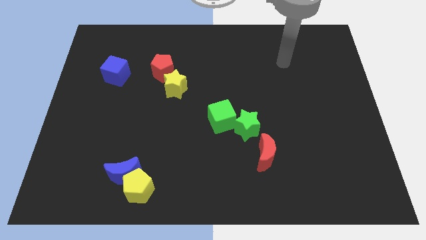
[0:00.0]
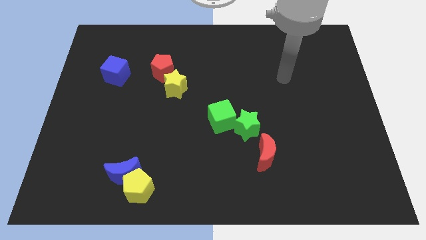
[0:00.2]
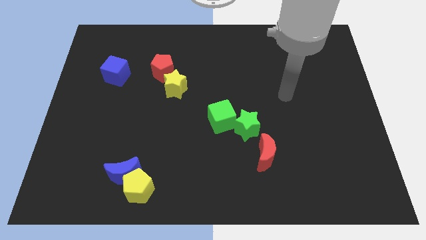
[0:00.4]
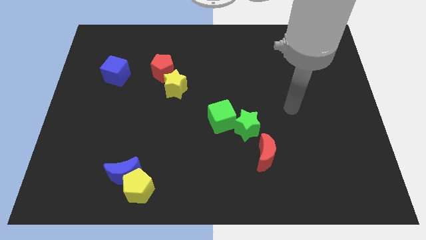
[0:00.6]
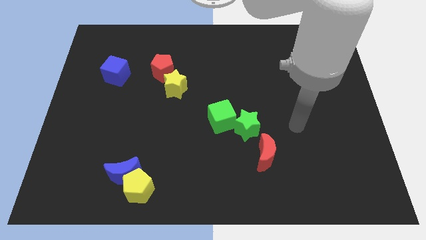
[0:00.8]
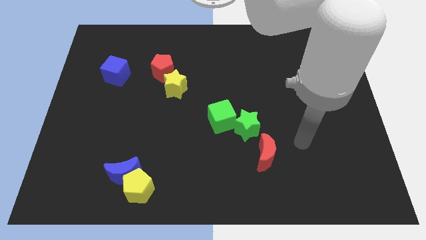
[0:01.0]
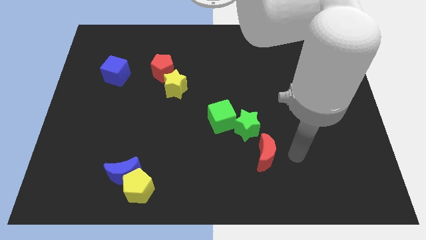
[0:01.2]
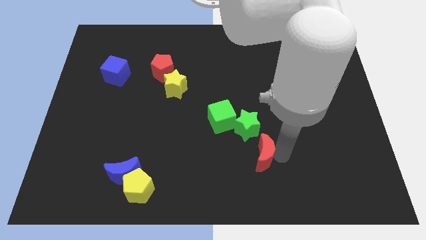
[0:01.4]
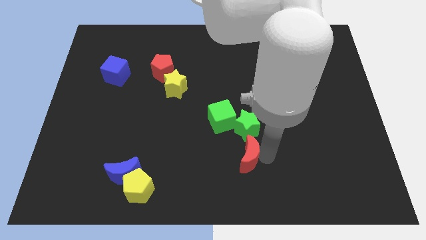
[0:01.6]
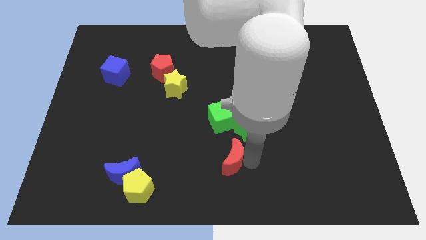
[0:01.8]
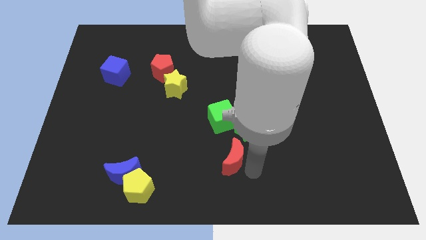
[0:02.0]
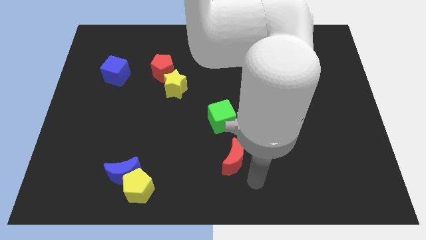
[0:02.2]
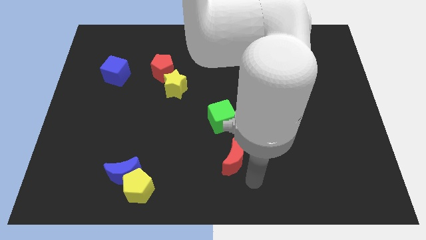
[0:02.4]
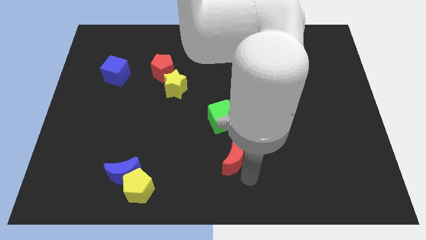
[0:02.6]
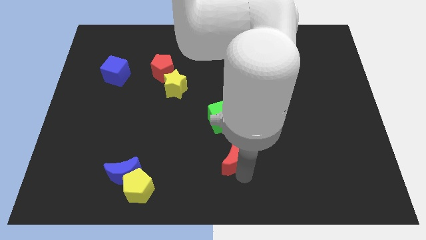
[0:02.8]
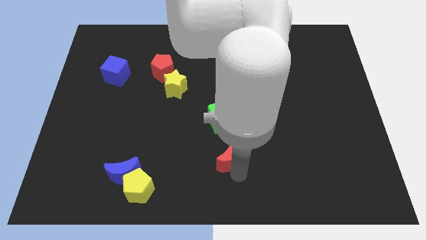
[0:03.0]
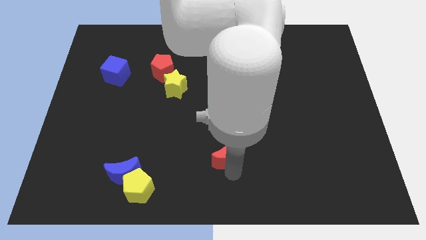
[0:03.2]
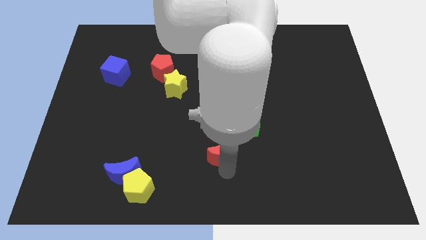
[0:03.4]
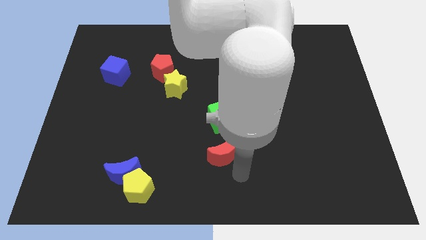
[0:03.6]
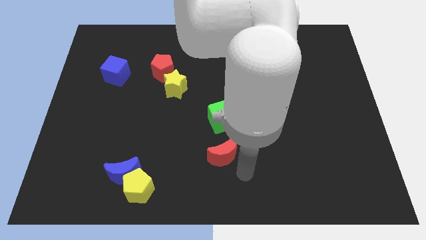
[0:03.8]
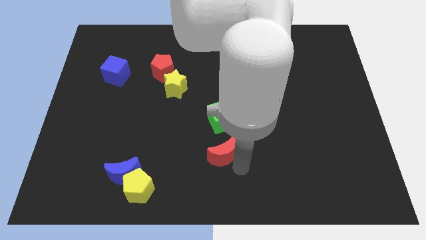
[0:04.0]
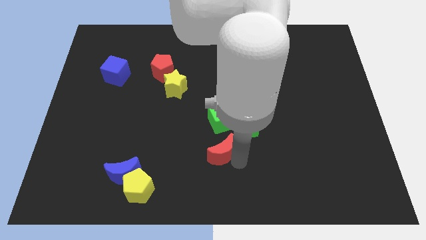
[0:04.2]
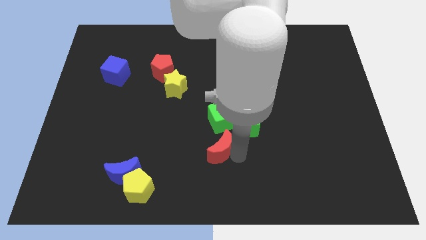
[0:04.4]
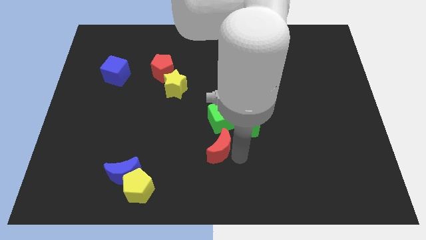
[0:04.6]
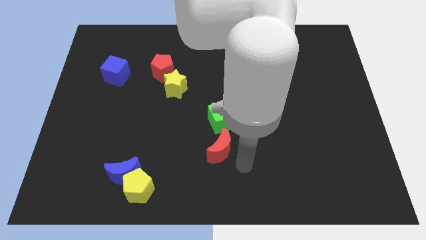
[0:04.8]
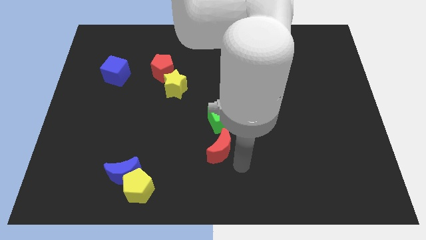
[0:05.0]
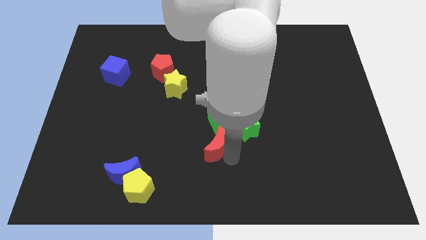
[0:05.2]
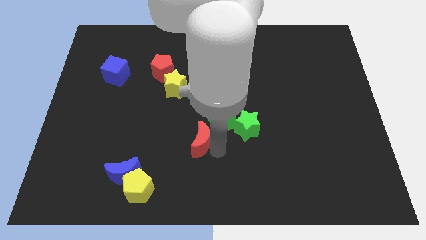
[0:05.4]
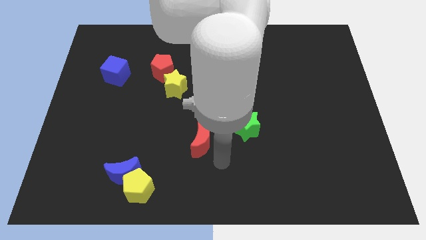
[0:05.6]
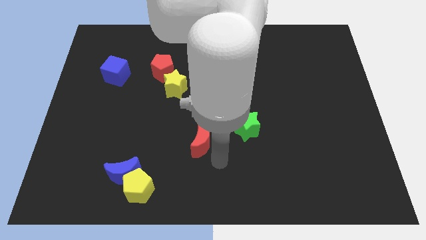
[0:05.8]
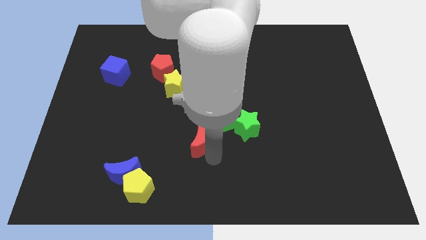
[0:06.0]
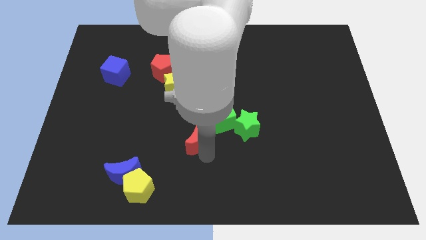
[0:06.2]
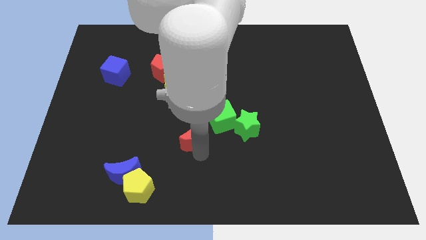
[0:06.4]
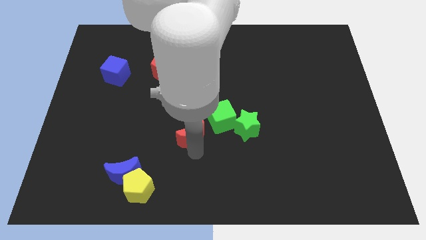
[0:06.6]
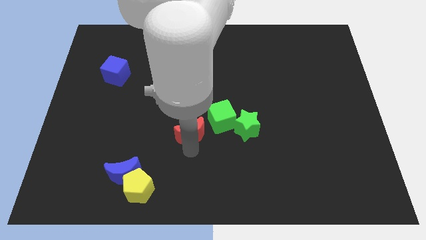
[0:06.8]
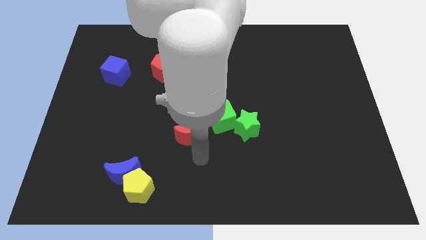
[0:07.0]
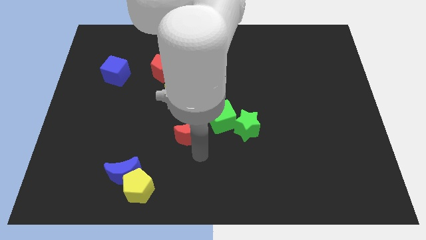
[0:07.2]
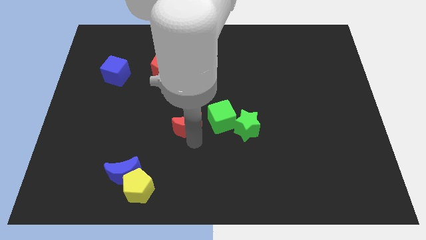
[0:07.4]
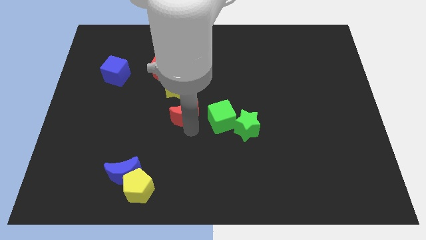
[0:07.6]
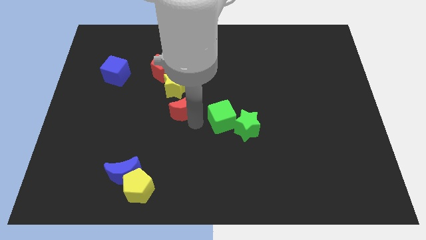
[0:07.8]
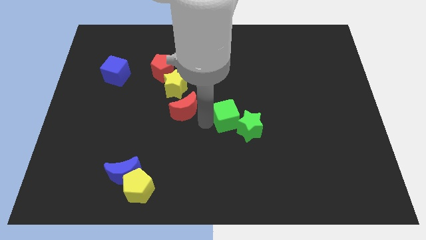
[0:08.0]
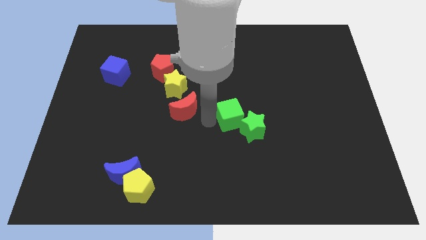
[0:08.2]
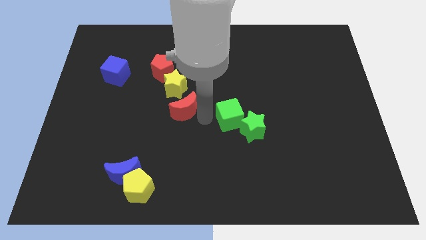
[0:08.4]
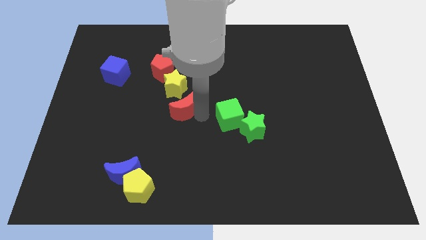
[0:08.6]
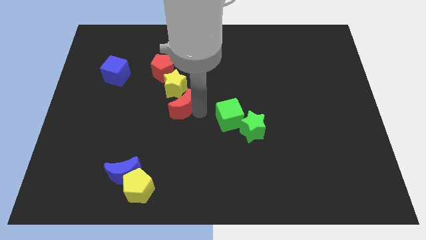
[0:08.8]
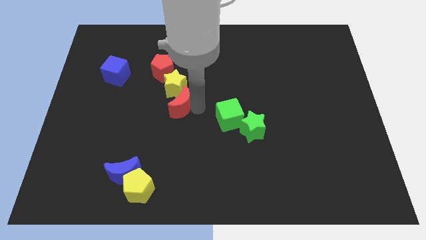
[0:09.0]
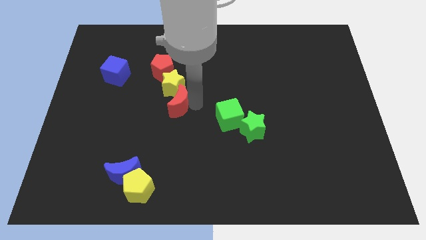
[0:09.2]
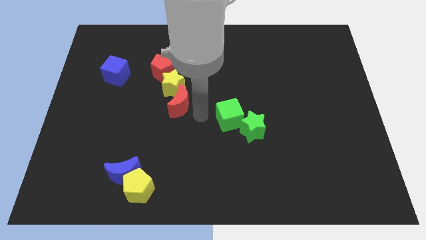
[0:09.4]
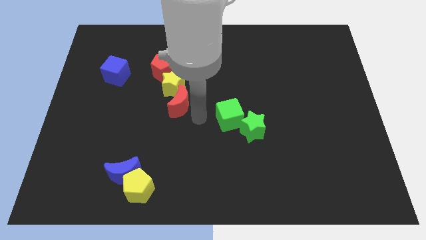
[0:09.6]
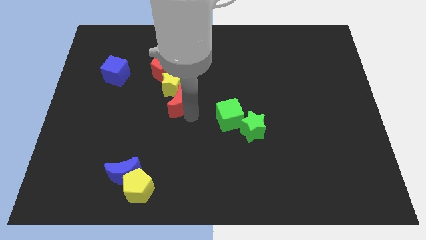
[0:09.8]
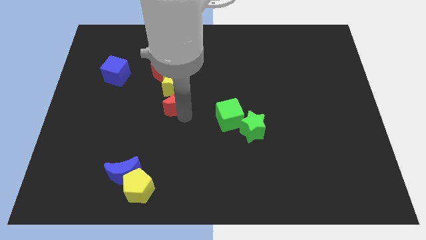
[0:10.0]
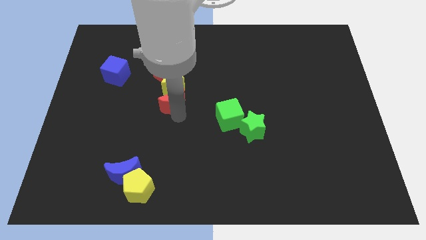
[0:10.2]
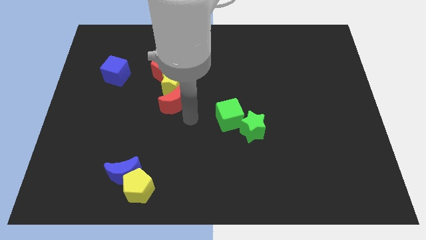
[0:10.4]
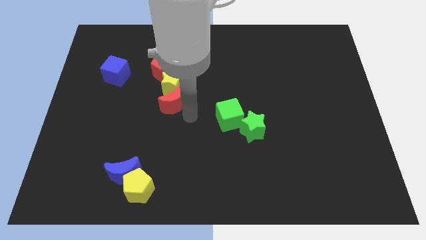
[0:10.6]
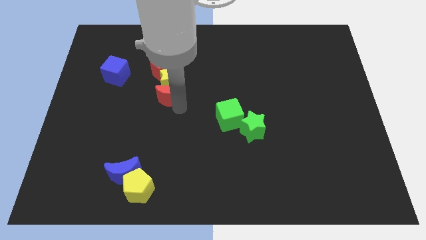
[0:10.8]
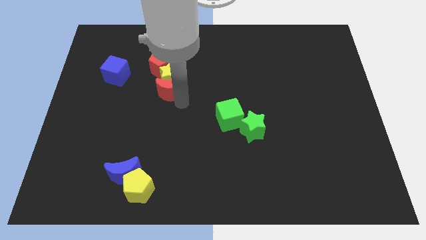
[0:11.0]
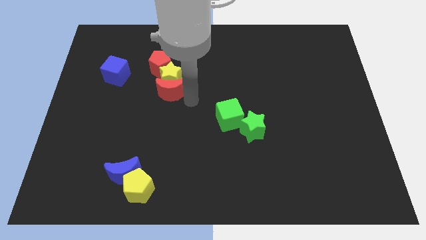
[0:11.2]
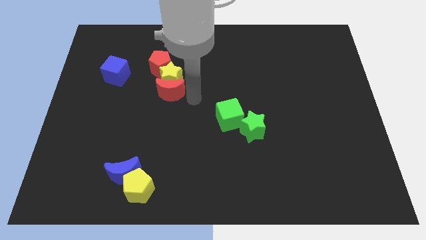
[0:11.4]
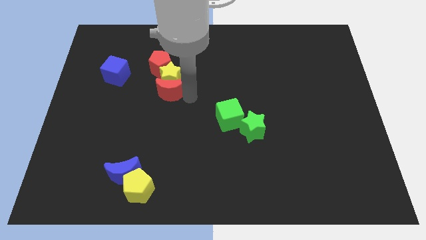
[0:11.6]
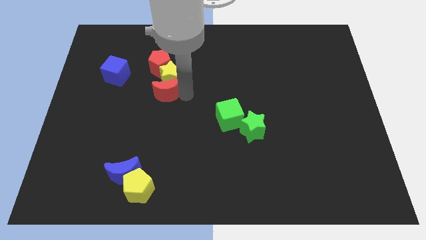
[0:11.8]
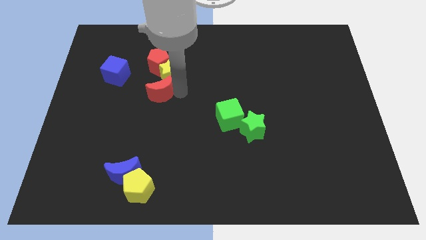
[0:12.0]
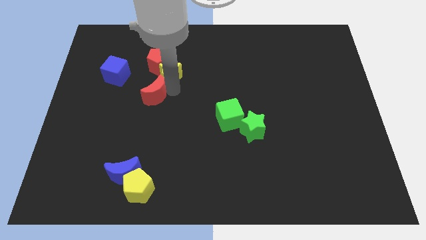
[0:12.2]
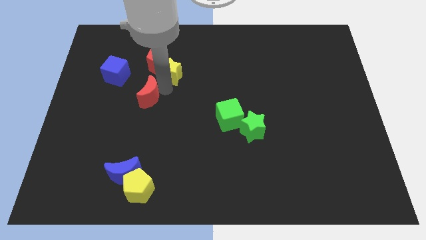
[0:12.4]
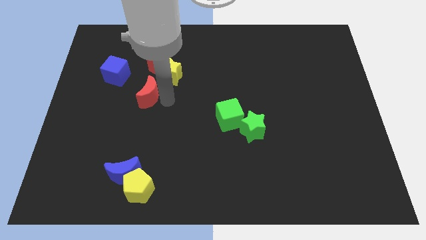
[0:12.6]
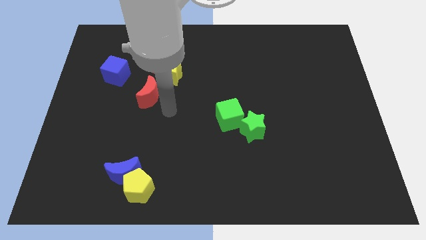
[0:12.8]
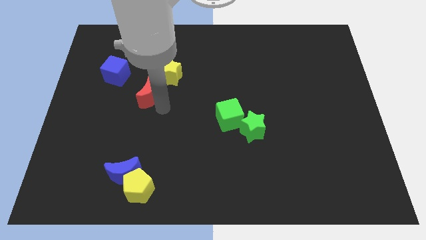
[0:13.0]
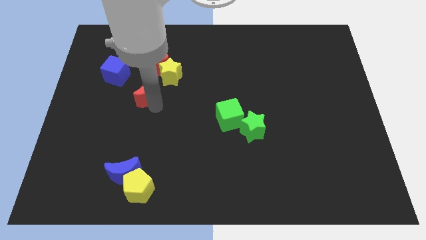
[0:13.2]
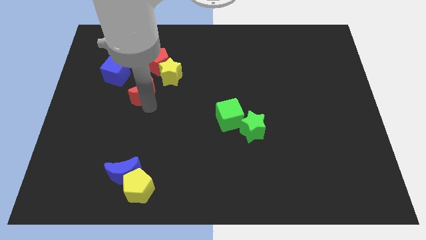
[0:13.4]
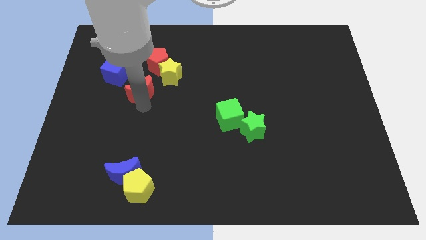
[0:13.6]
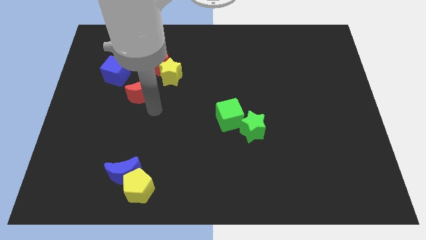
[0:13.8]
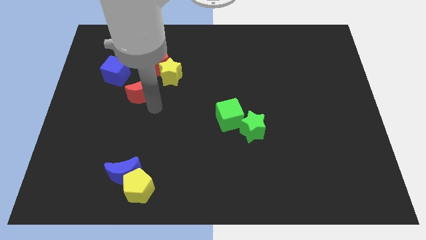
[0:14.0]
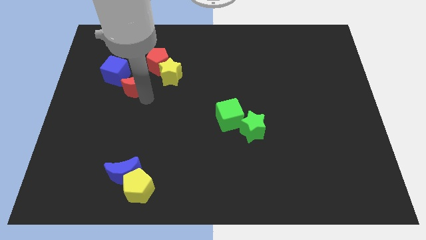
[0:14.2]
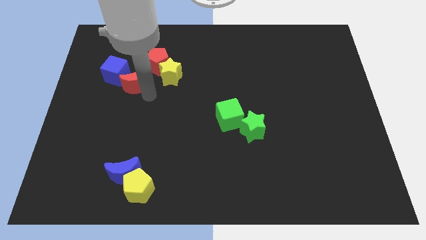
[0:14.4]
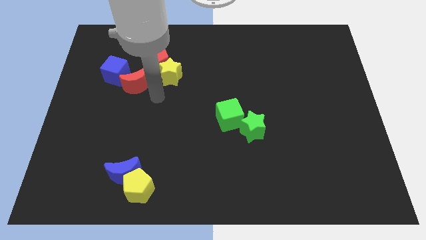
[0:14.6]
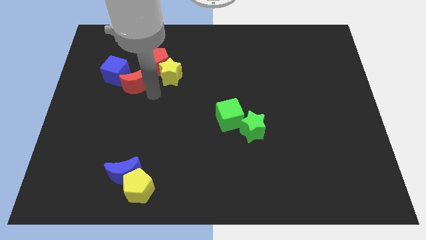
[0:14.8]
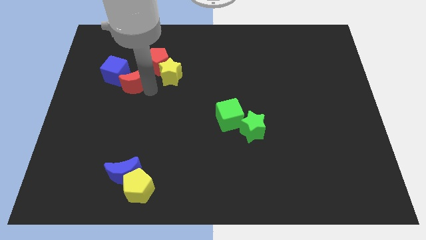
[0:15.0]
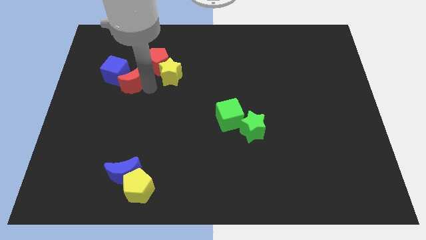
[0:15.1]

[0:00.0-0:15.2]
slide the red moon close to the blue cube

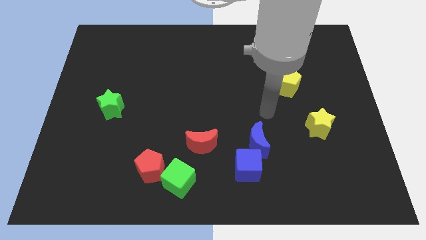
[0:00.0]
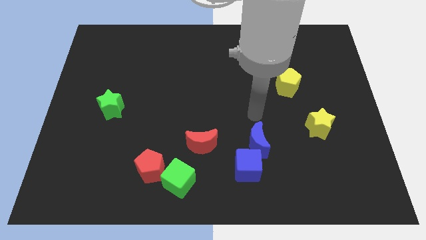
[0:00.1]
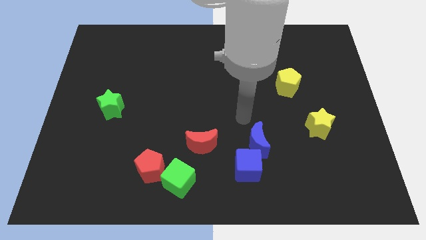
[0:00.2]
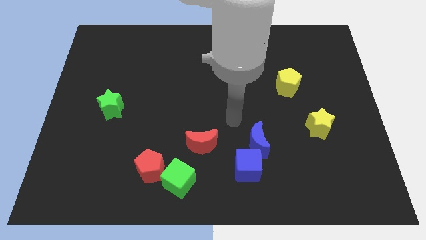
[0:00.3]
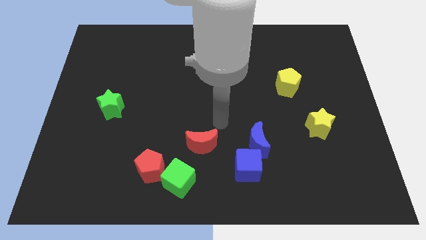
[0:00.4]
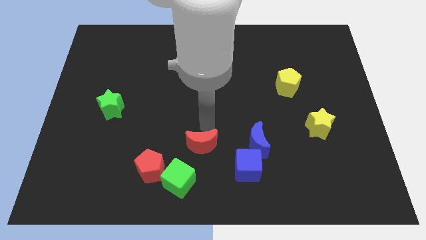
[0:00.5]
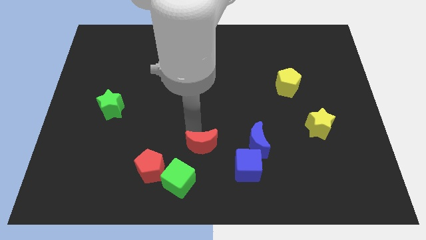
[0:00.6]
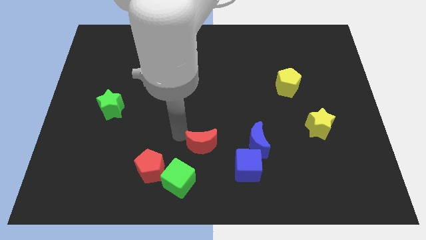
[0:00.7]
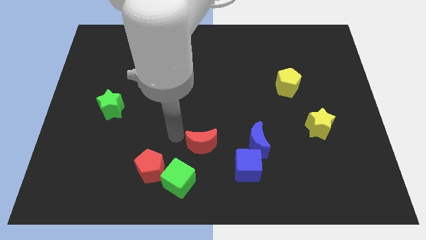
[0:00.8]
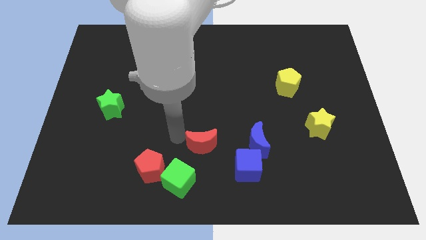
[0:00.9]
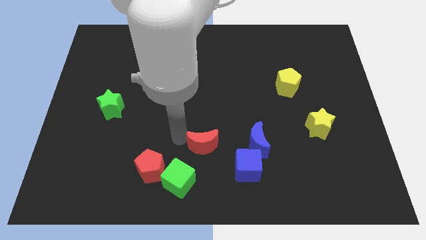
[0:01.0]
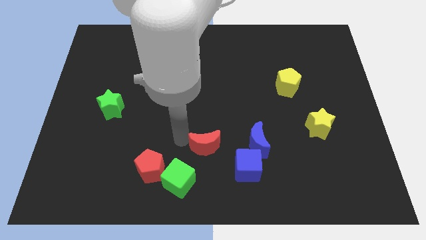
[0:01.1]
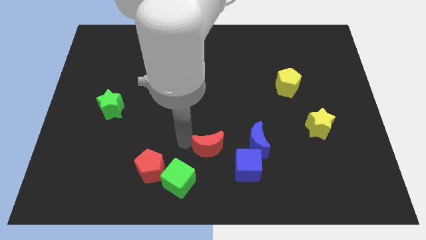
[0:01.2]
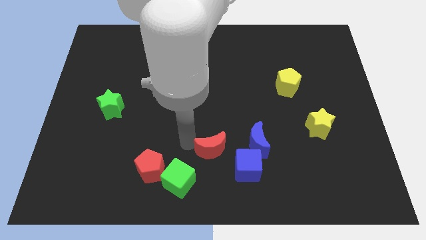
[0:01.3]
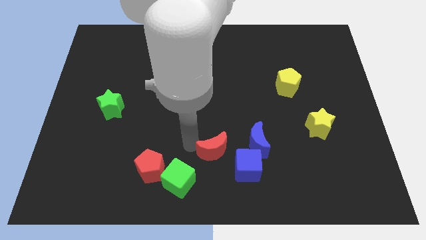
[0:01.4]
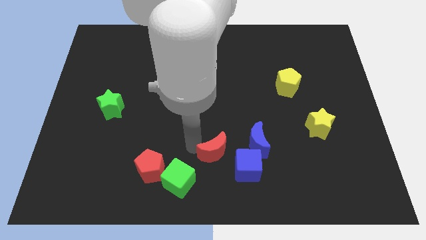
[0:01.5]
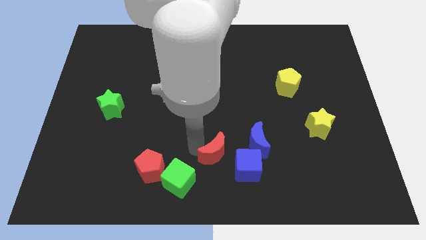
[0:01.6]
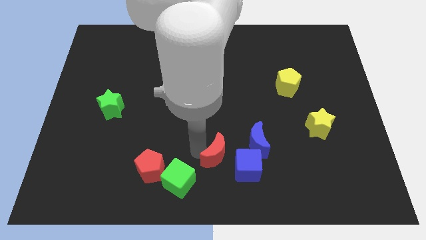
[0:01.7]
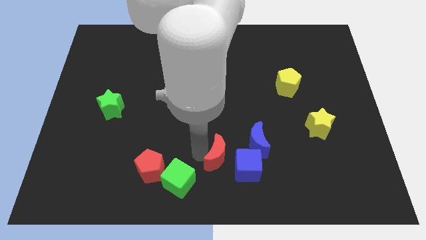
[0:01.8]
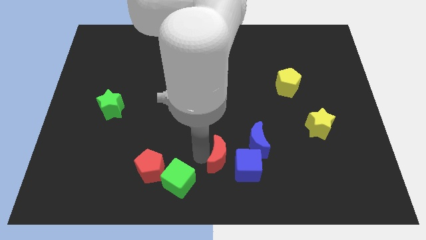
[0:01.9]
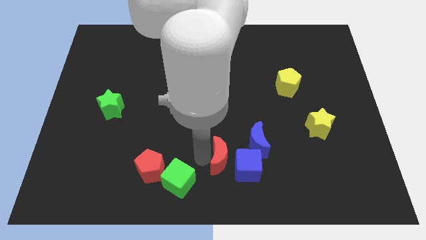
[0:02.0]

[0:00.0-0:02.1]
push the red moon to the blue cube
